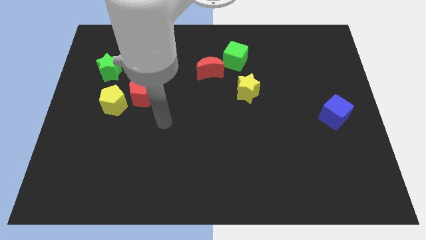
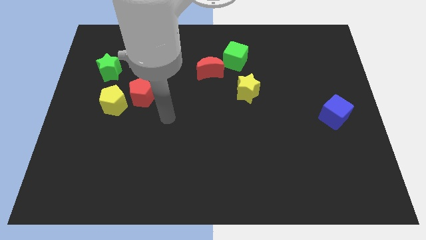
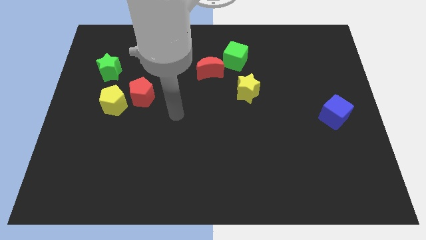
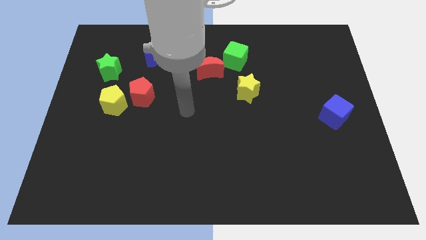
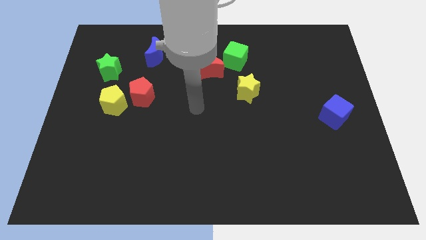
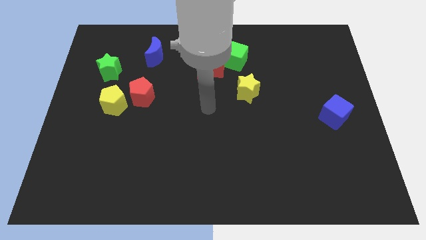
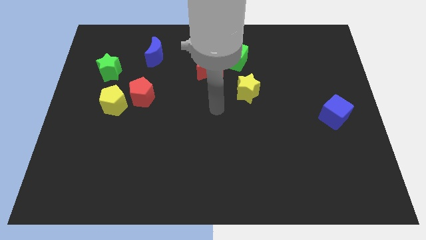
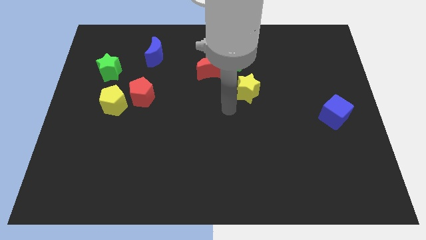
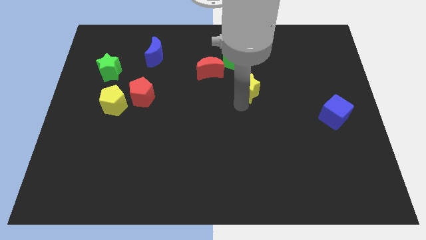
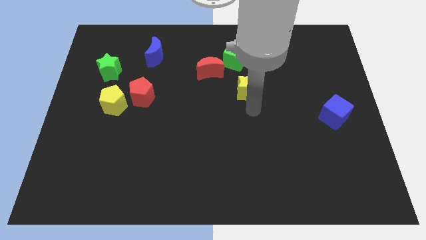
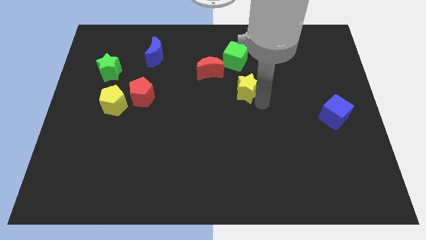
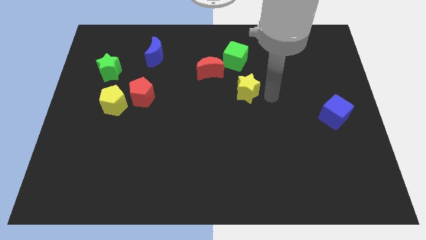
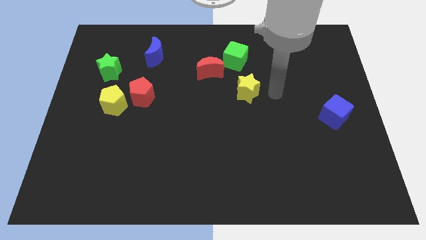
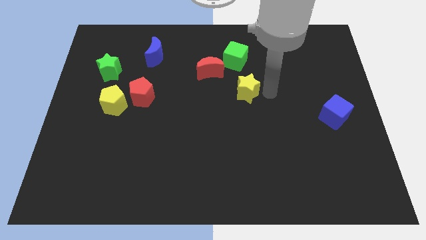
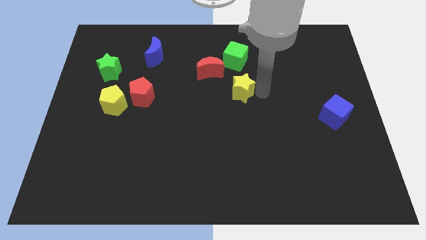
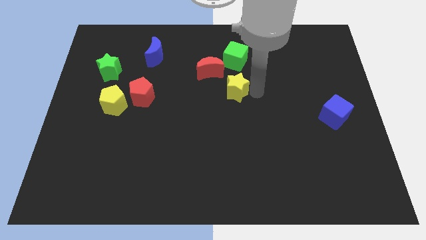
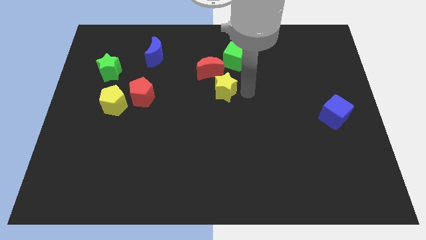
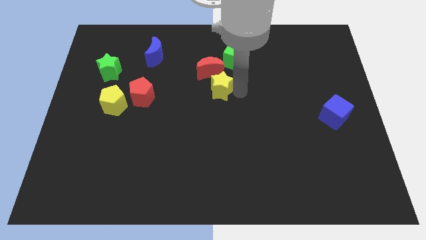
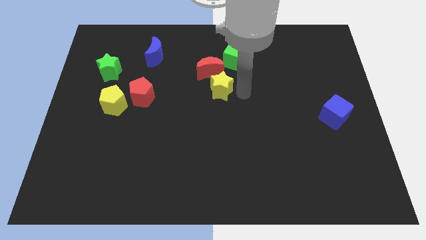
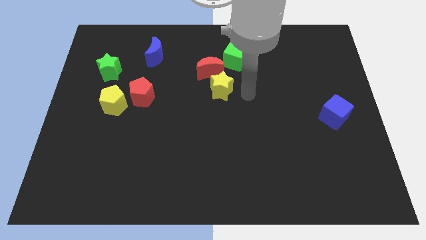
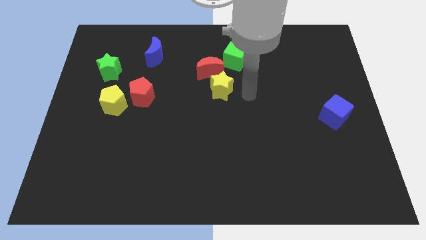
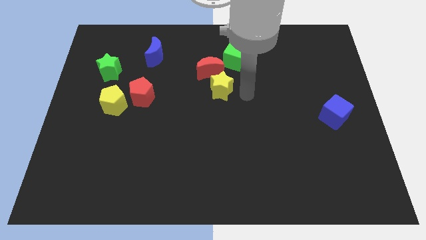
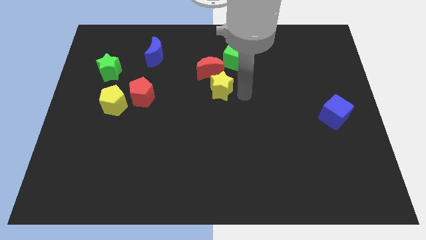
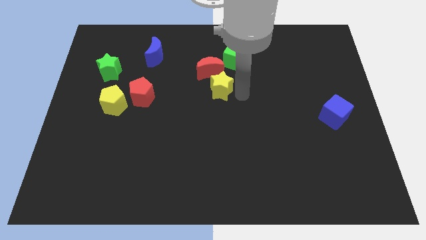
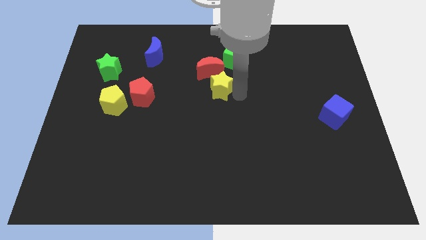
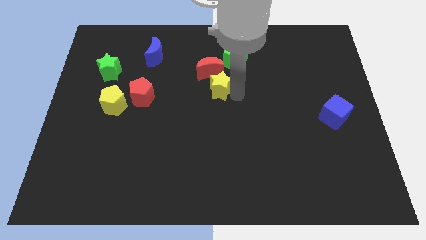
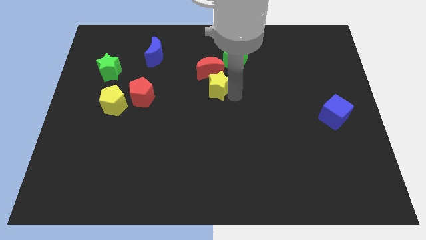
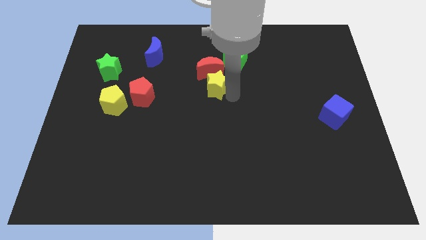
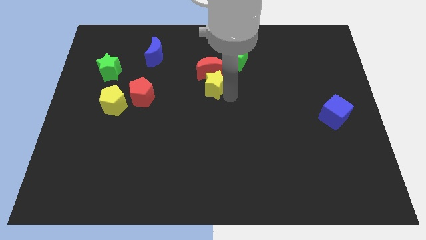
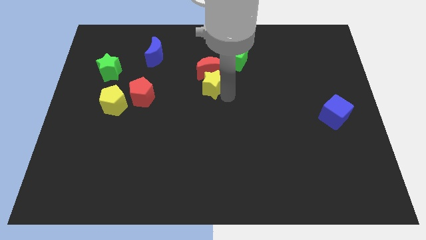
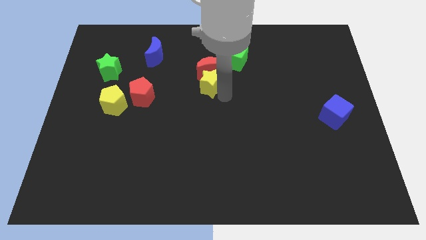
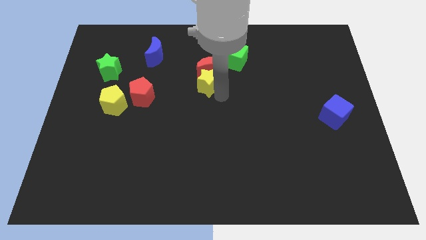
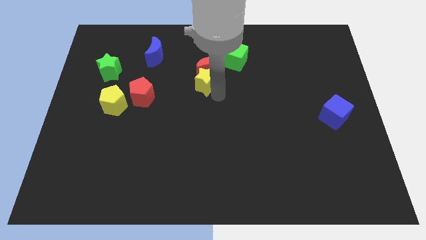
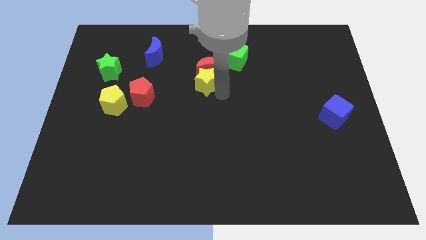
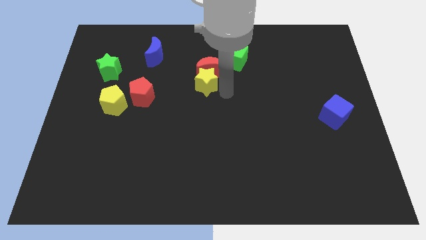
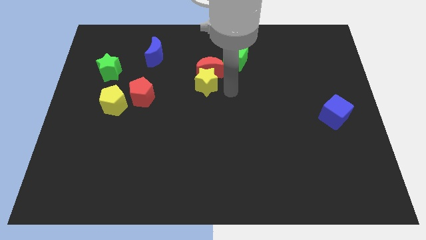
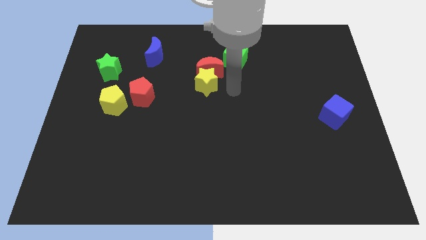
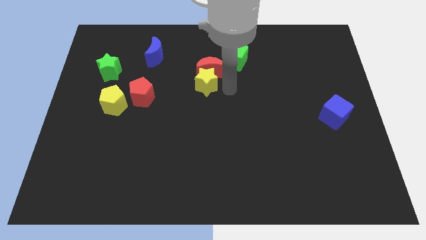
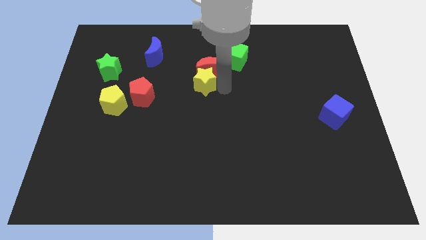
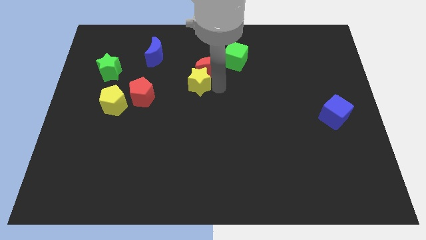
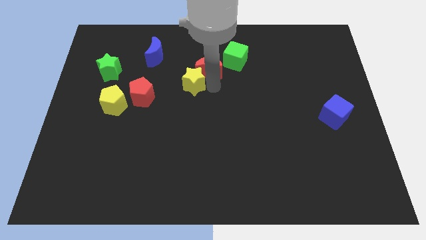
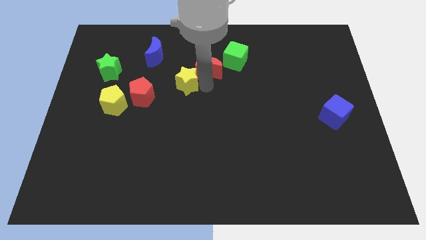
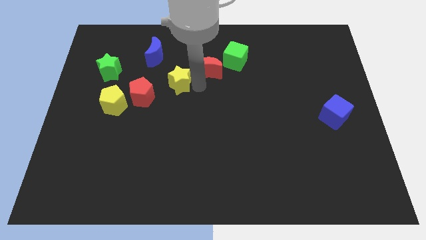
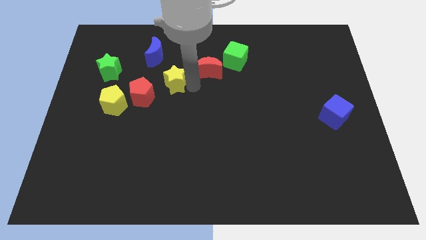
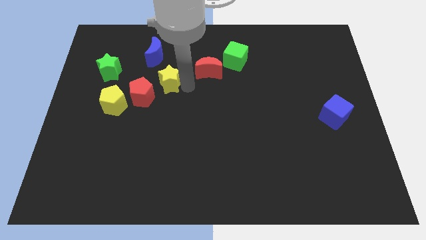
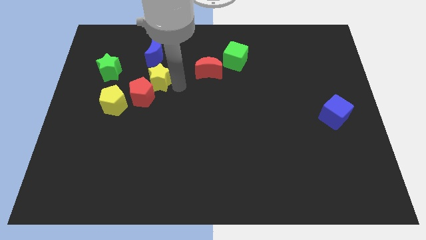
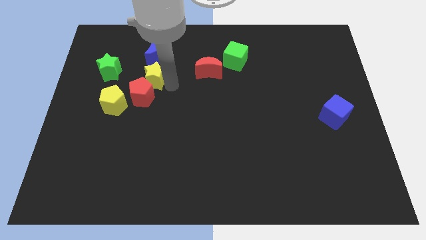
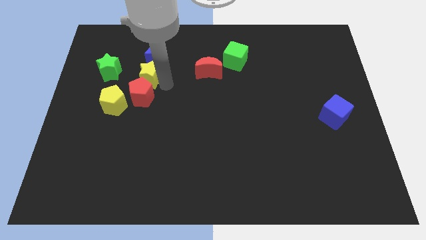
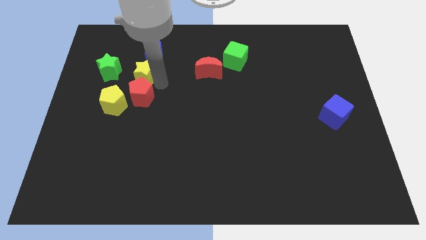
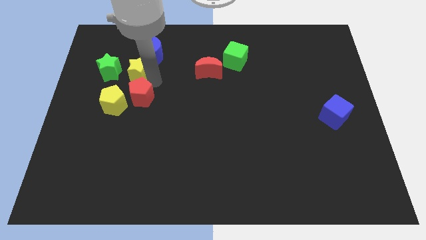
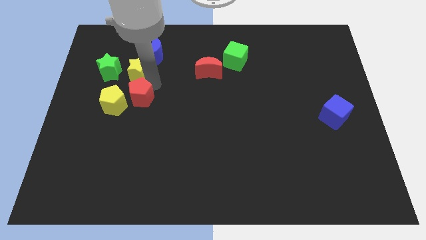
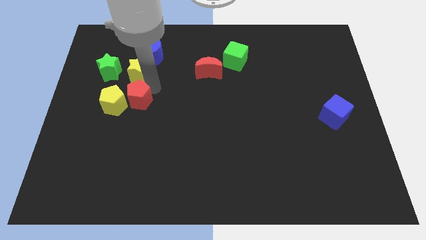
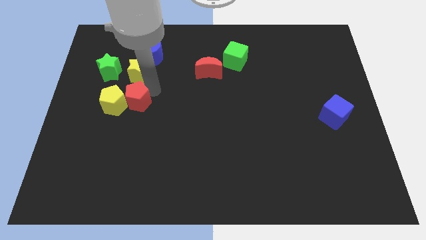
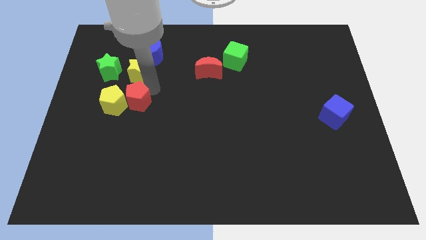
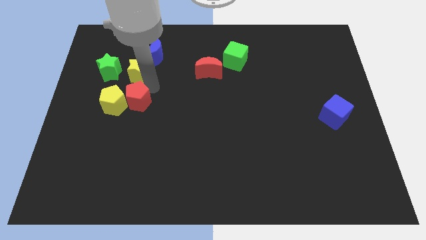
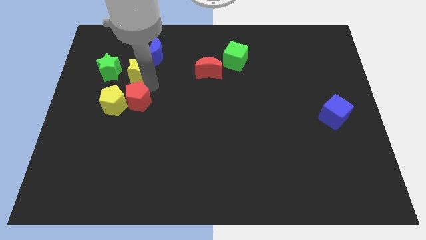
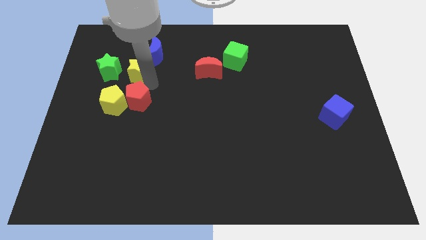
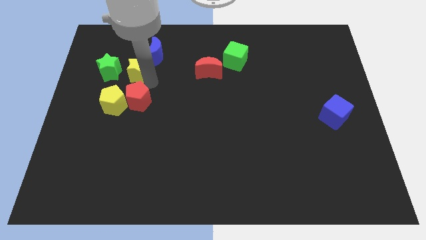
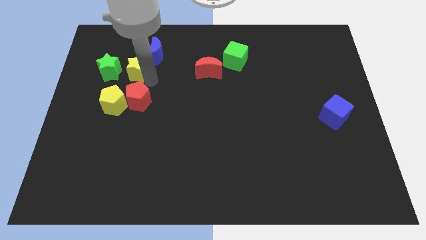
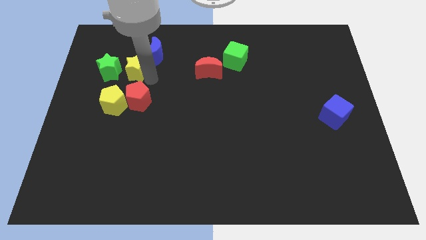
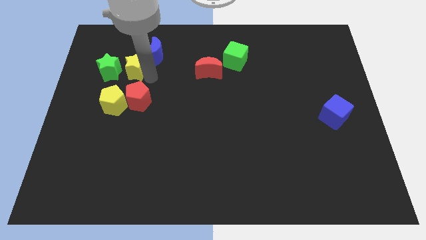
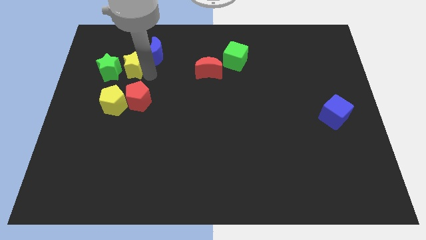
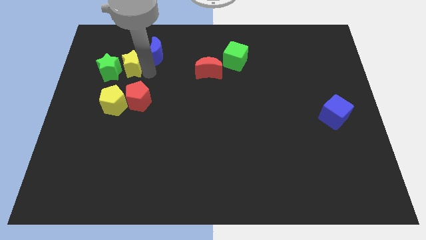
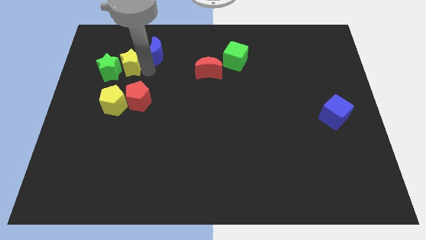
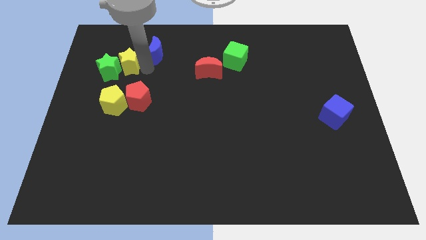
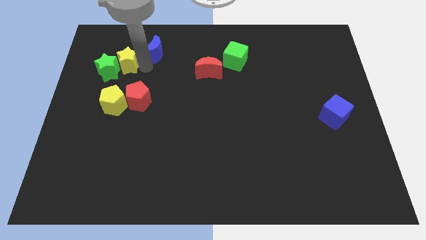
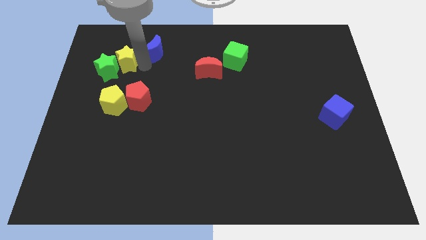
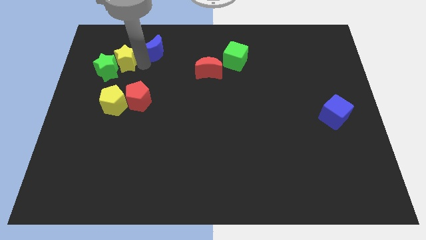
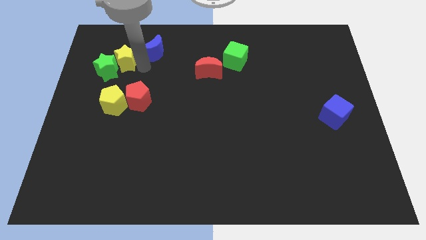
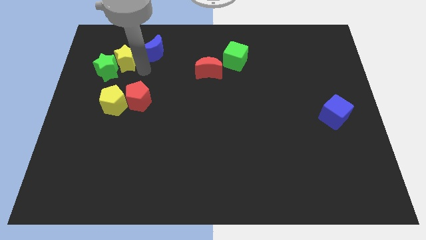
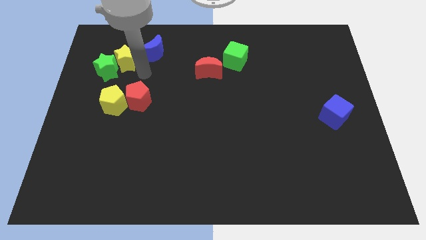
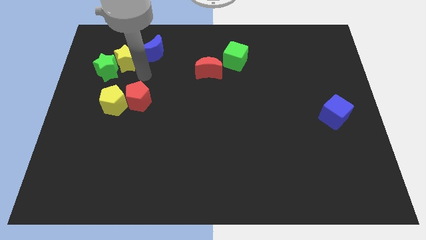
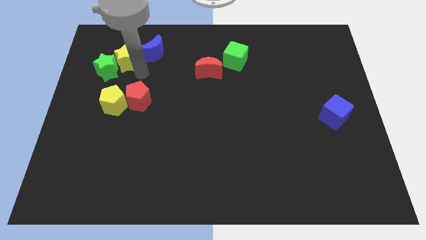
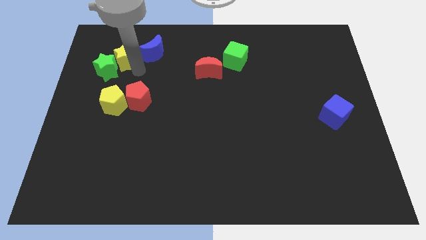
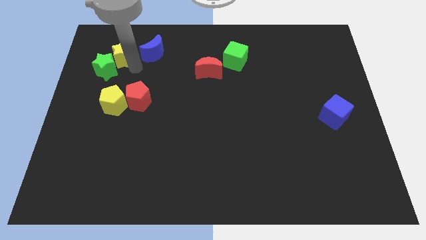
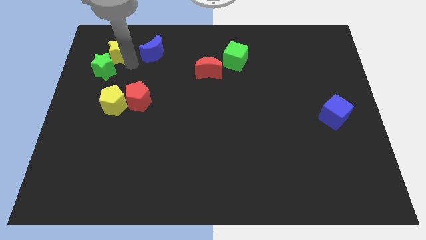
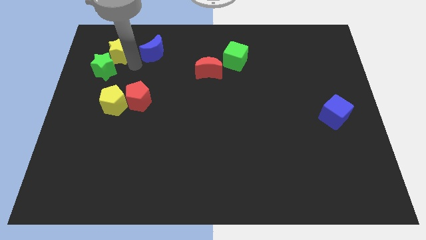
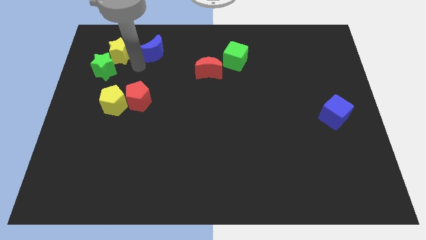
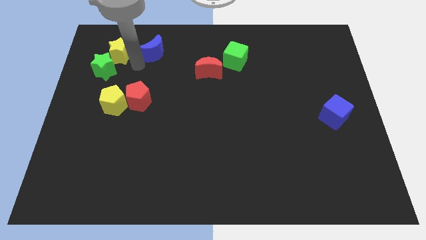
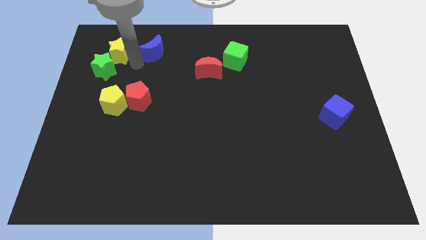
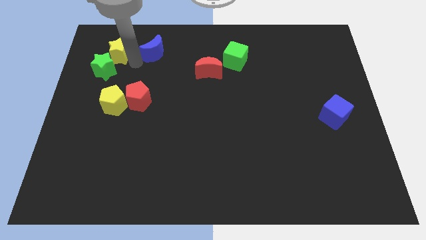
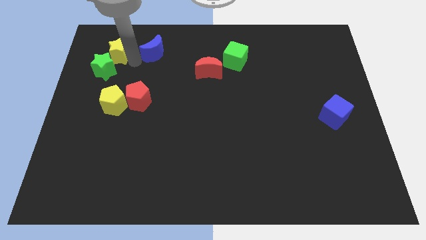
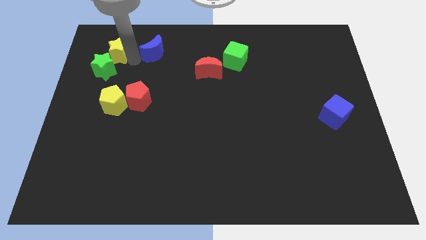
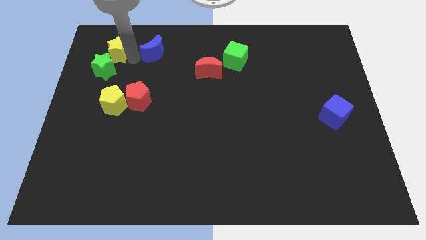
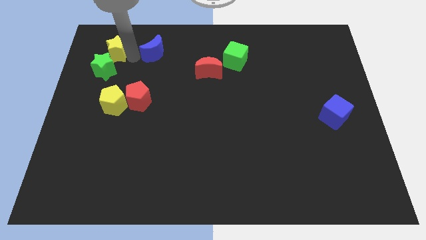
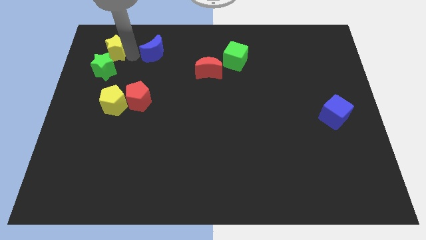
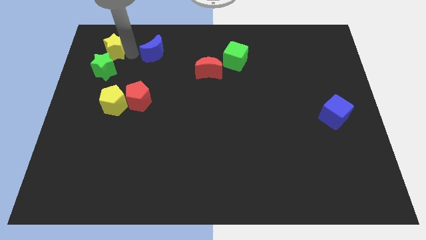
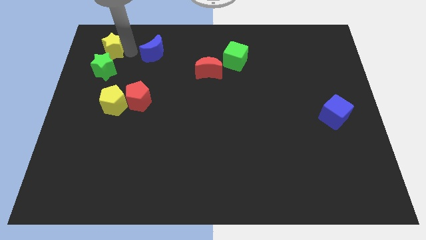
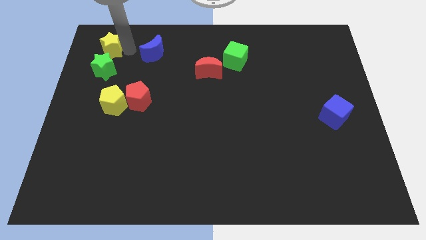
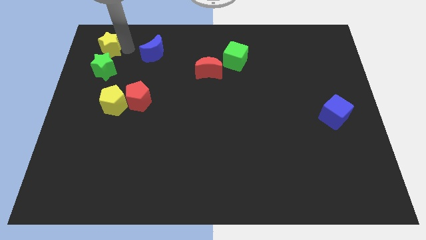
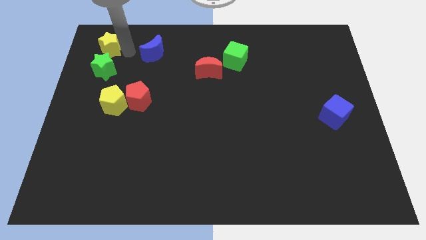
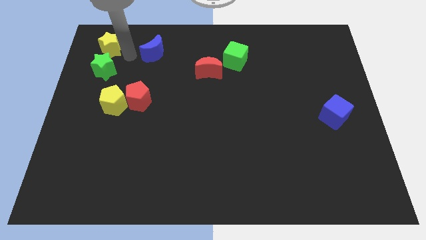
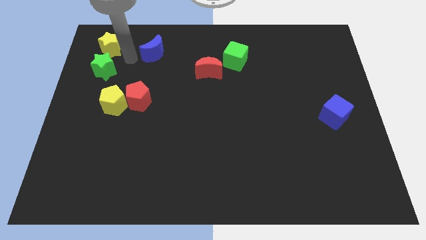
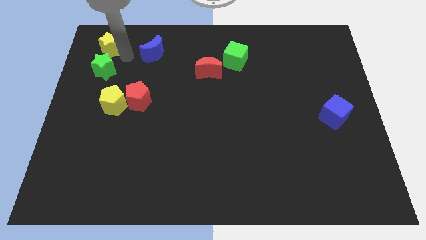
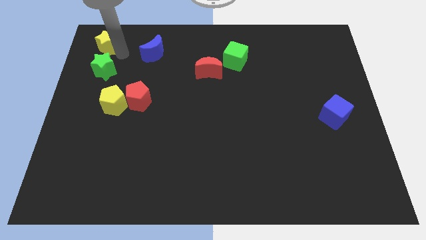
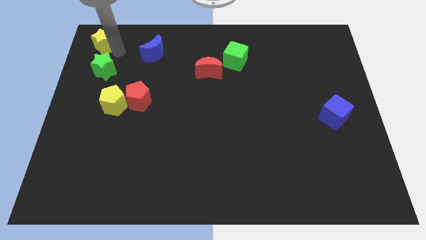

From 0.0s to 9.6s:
push the yellow star to the upper left corner
